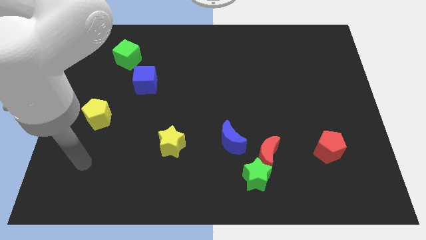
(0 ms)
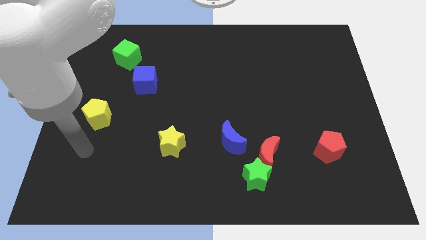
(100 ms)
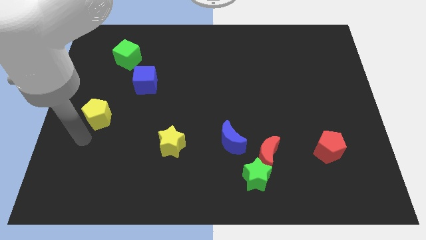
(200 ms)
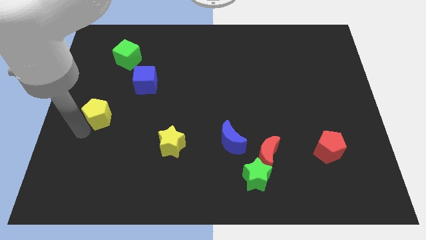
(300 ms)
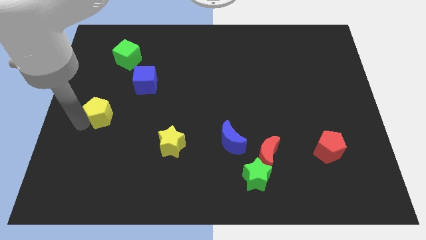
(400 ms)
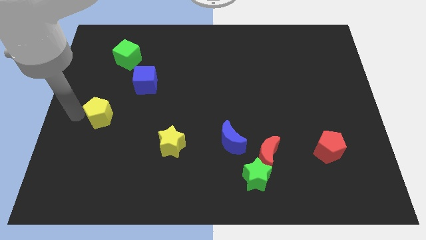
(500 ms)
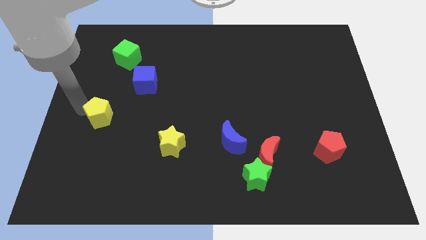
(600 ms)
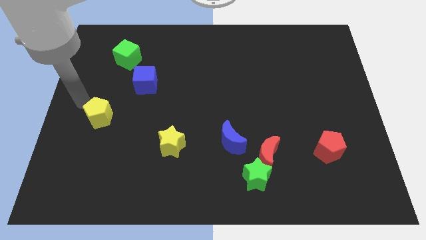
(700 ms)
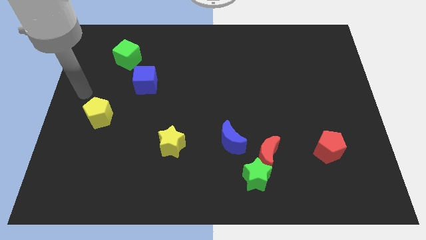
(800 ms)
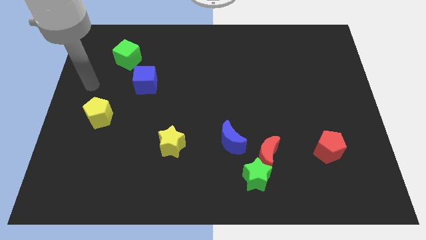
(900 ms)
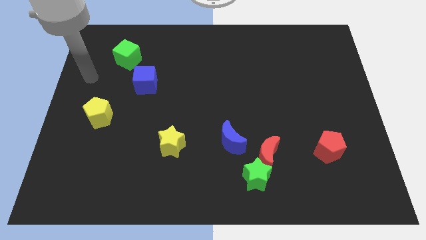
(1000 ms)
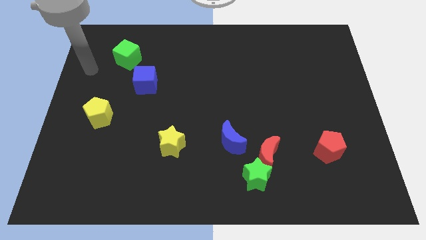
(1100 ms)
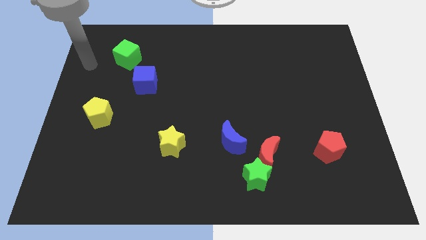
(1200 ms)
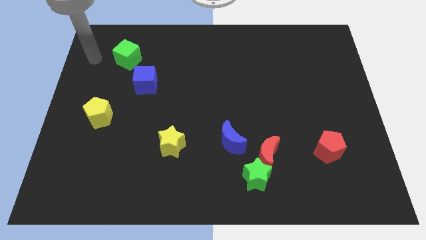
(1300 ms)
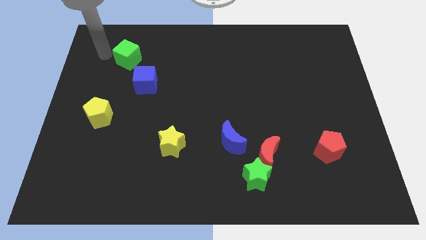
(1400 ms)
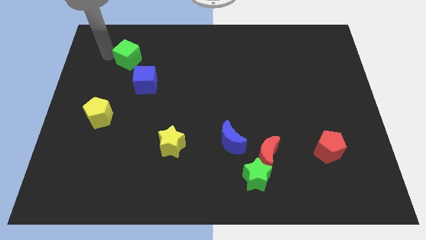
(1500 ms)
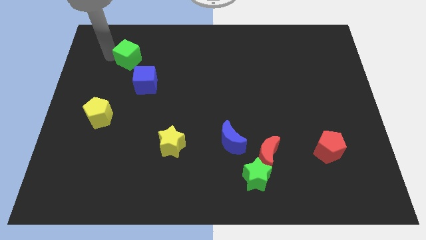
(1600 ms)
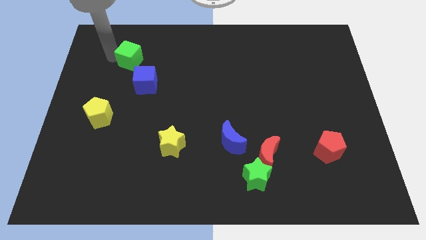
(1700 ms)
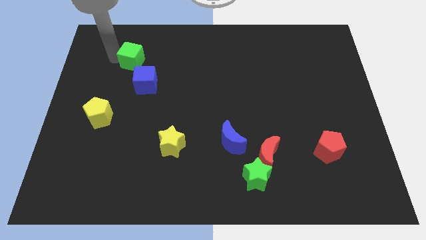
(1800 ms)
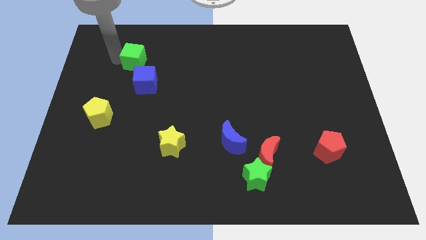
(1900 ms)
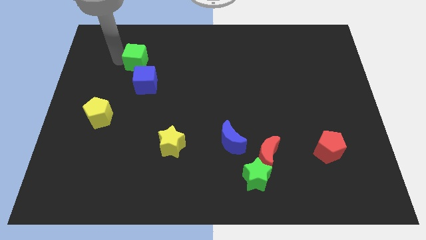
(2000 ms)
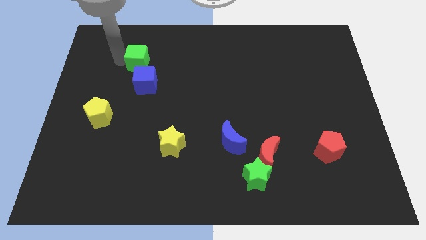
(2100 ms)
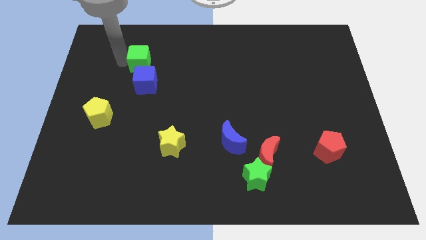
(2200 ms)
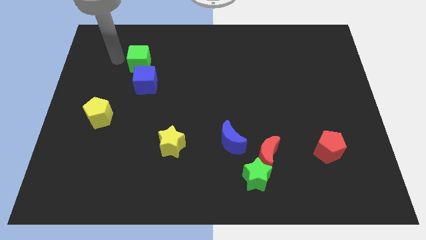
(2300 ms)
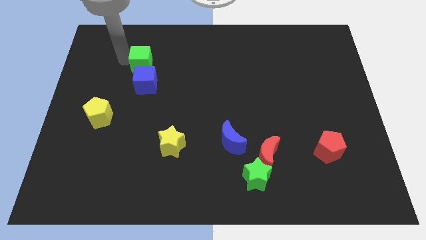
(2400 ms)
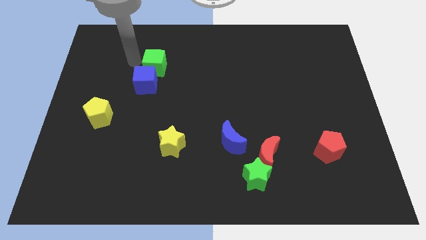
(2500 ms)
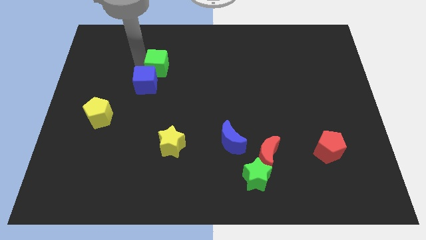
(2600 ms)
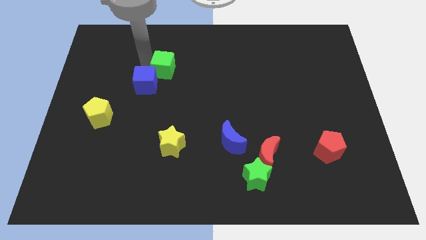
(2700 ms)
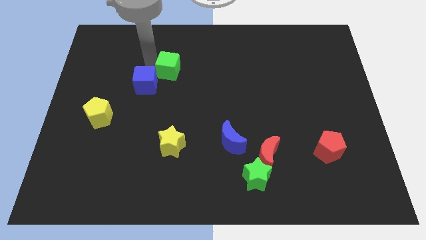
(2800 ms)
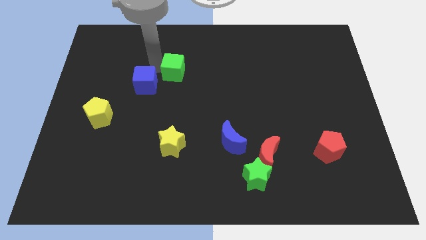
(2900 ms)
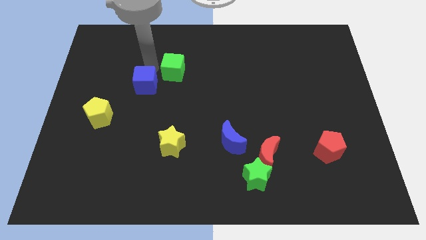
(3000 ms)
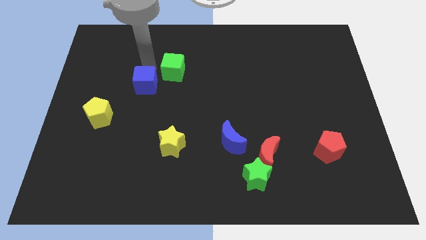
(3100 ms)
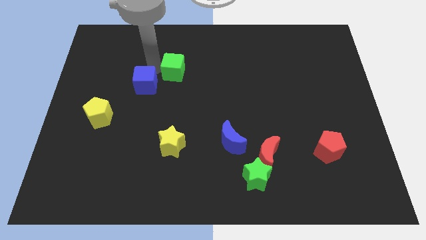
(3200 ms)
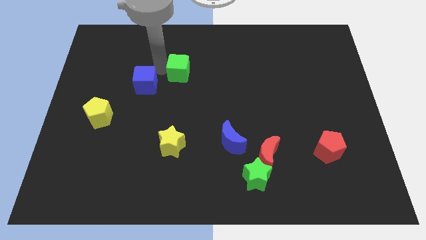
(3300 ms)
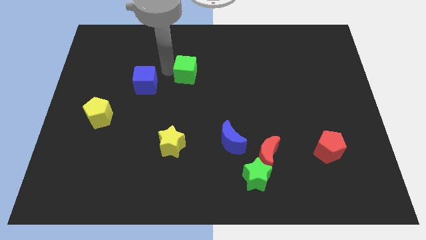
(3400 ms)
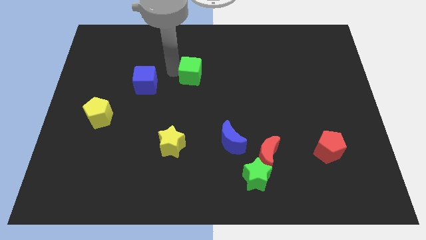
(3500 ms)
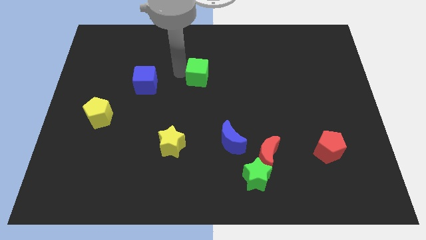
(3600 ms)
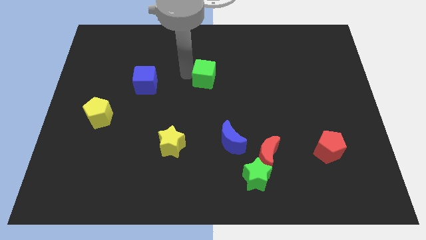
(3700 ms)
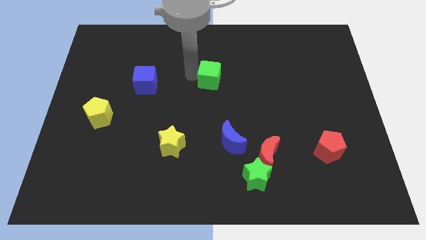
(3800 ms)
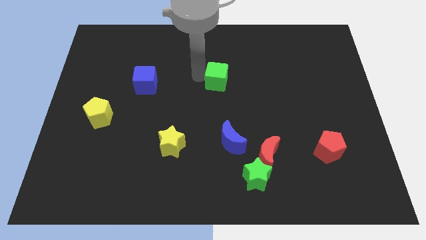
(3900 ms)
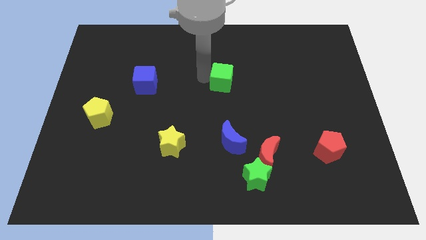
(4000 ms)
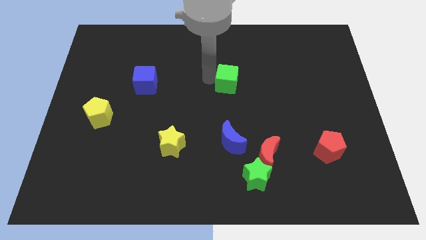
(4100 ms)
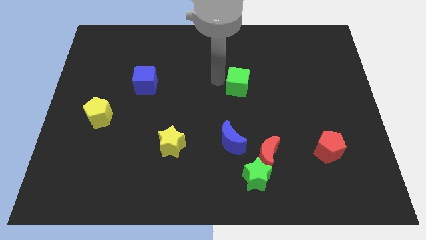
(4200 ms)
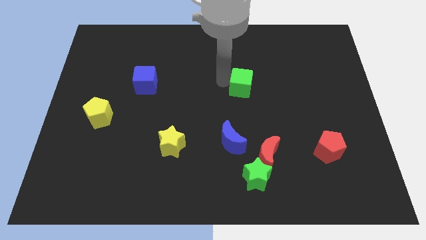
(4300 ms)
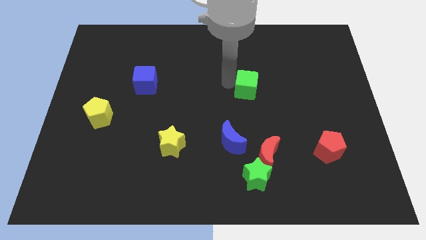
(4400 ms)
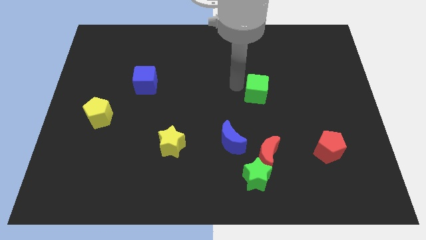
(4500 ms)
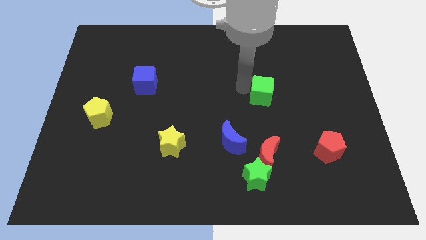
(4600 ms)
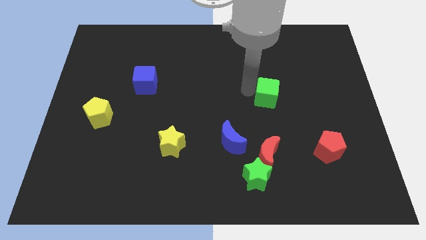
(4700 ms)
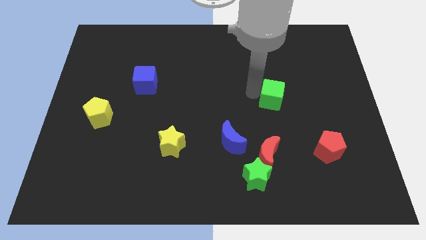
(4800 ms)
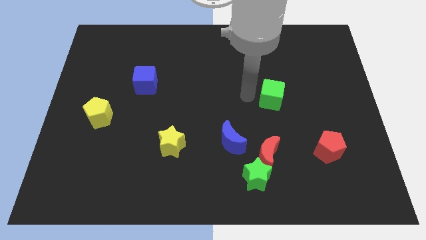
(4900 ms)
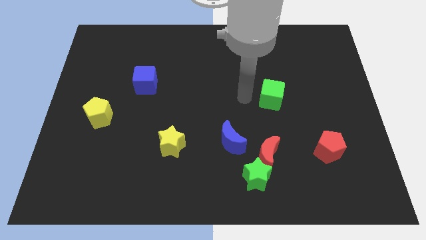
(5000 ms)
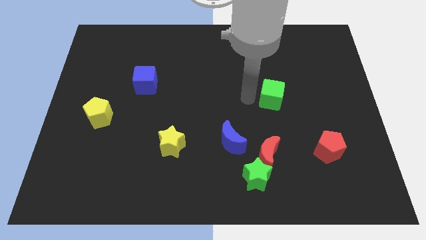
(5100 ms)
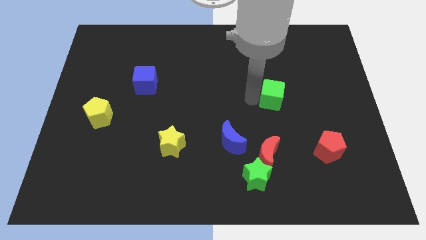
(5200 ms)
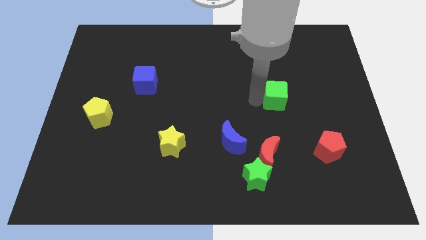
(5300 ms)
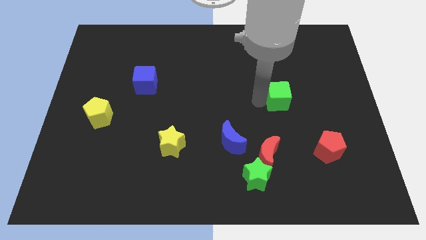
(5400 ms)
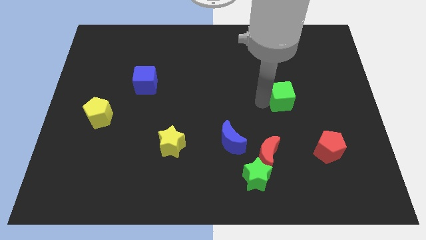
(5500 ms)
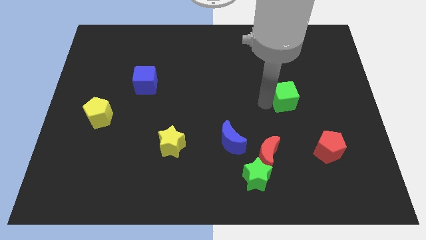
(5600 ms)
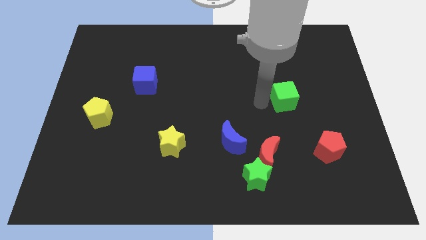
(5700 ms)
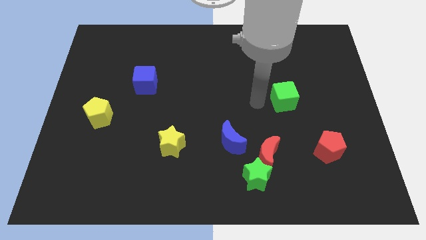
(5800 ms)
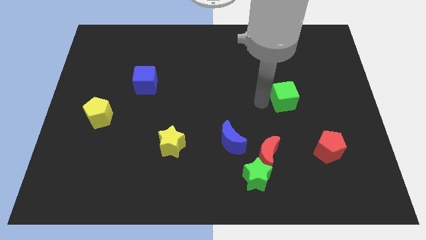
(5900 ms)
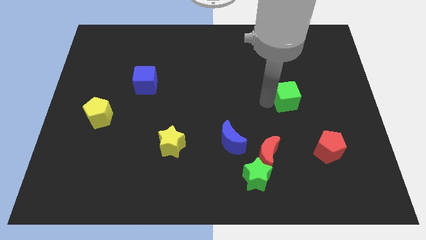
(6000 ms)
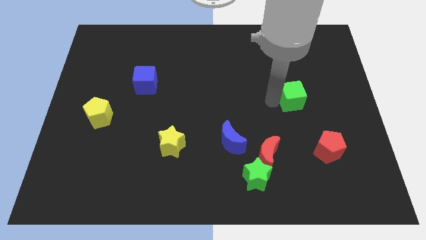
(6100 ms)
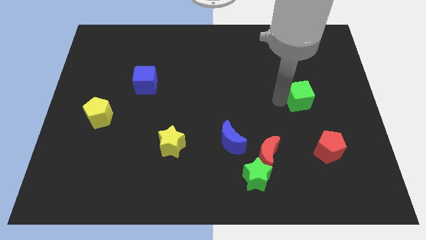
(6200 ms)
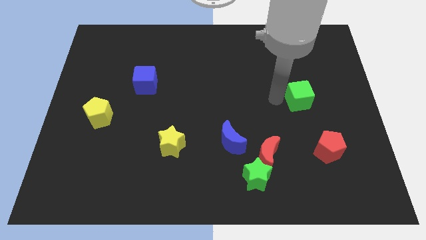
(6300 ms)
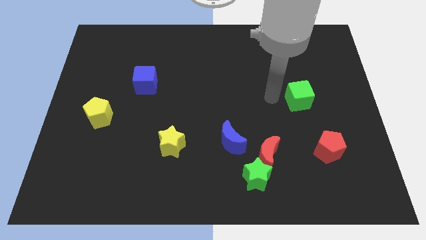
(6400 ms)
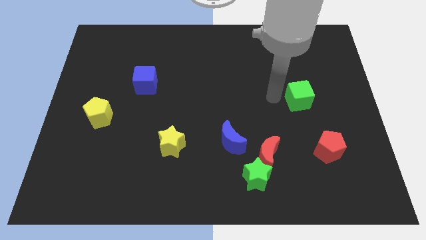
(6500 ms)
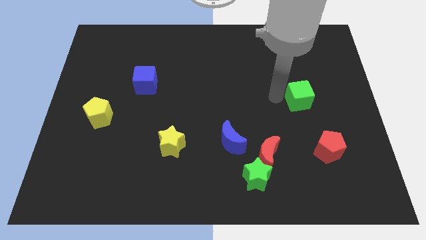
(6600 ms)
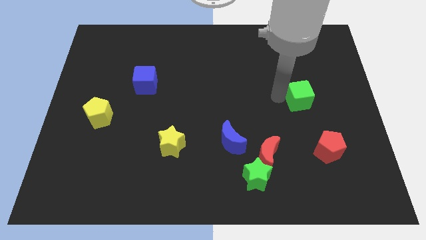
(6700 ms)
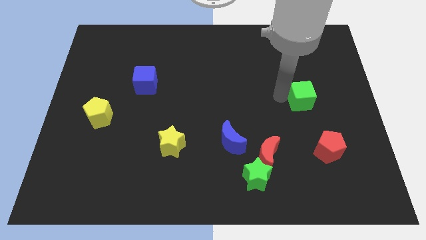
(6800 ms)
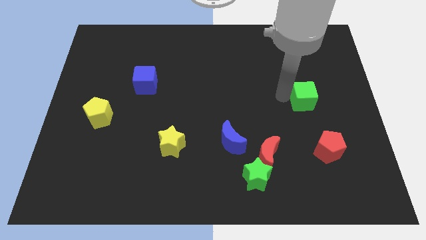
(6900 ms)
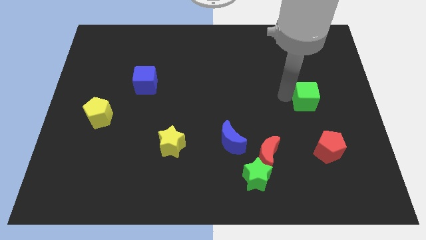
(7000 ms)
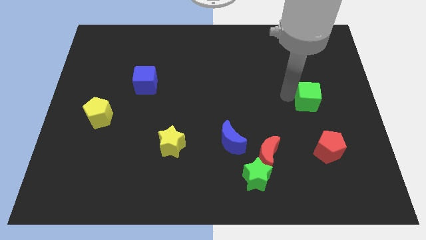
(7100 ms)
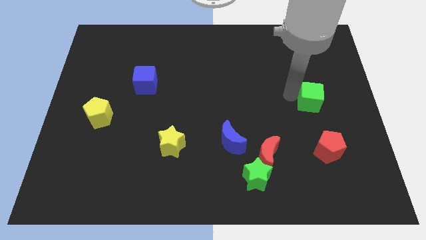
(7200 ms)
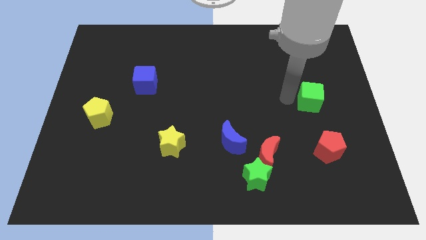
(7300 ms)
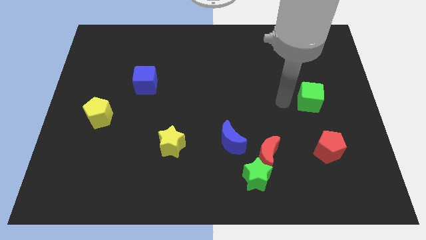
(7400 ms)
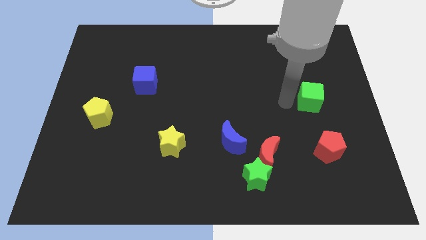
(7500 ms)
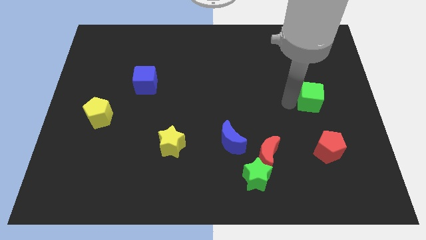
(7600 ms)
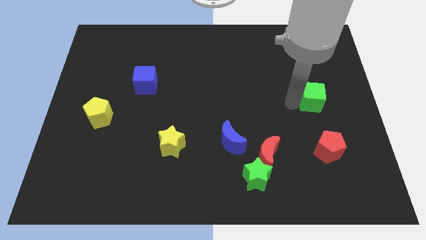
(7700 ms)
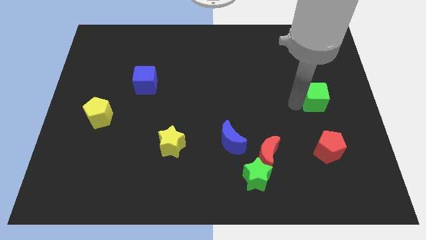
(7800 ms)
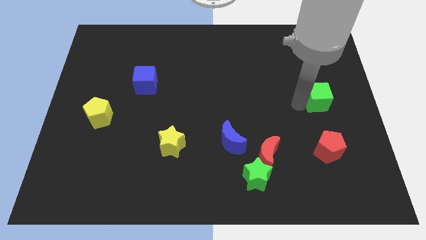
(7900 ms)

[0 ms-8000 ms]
put the green cube to the right side of the board
